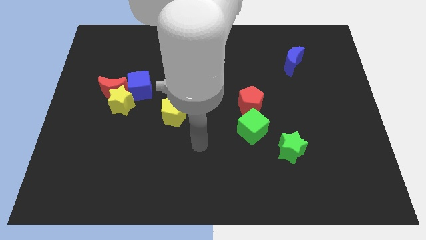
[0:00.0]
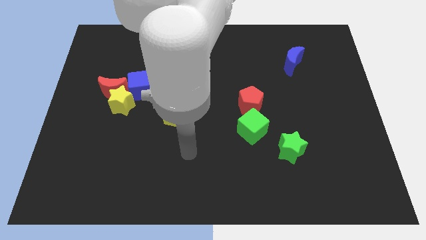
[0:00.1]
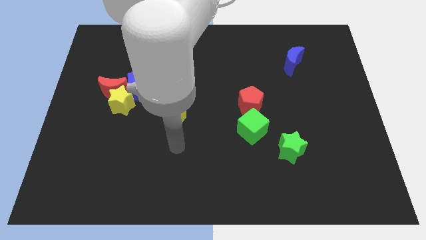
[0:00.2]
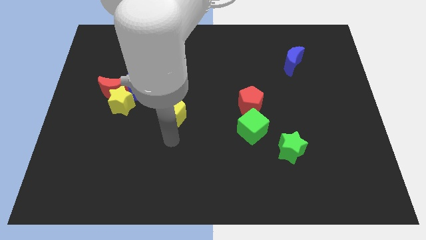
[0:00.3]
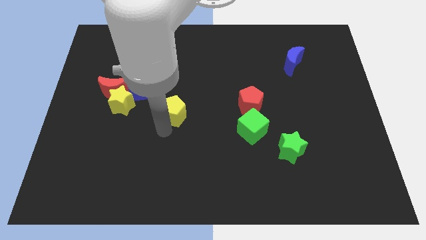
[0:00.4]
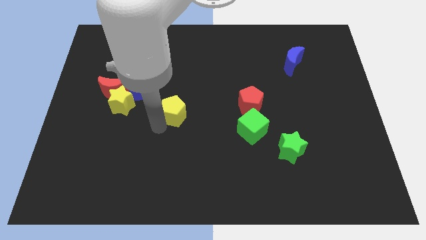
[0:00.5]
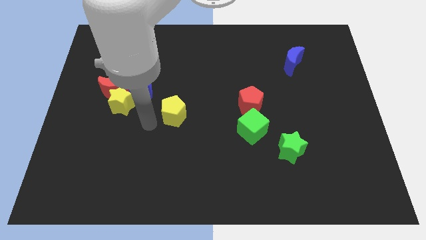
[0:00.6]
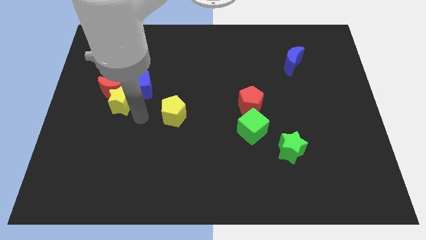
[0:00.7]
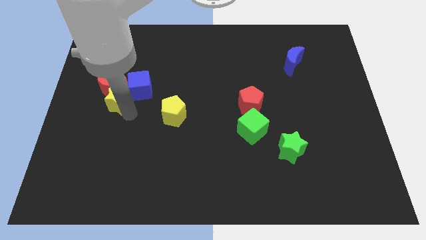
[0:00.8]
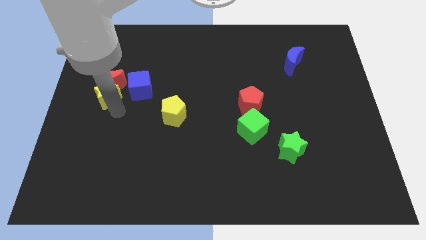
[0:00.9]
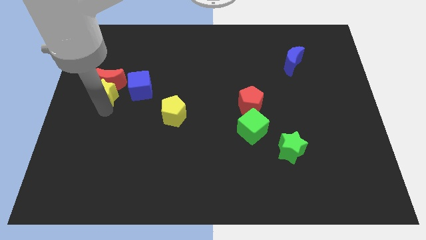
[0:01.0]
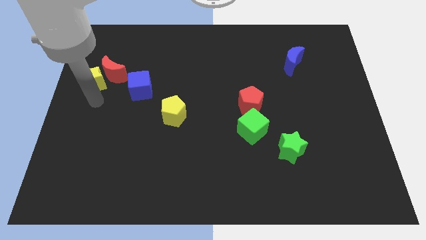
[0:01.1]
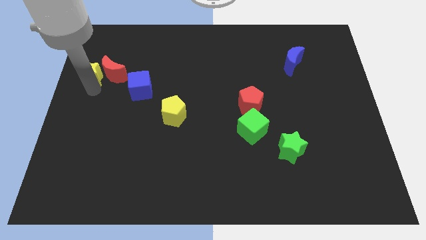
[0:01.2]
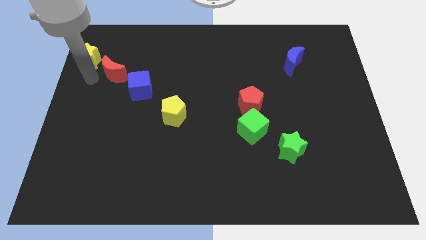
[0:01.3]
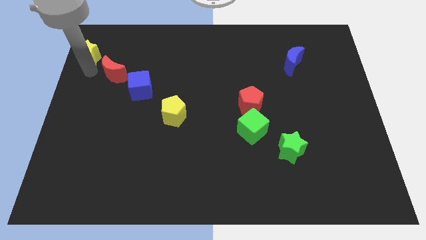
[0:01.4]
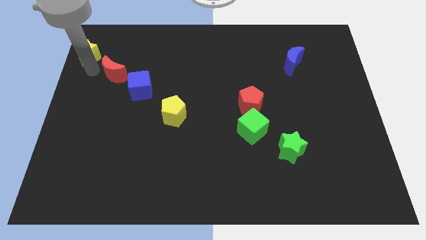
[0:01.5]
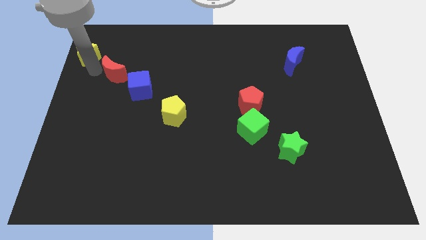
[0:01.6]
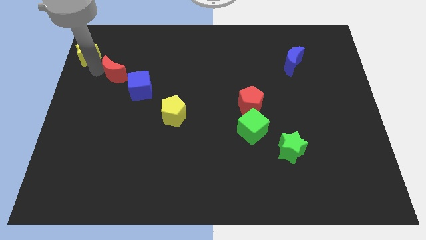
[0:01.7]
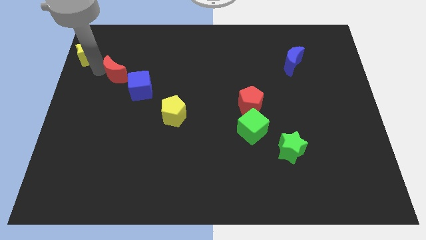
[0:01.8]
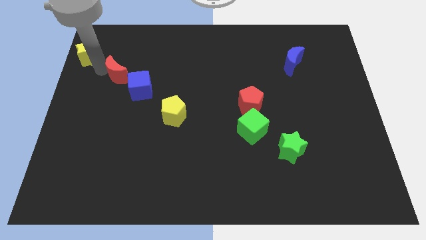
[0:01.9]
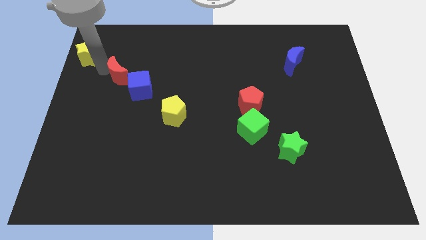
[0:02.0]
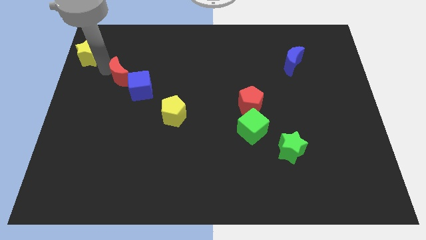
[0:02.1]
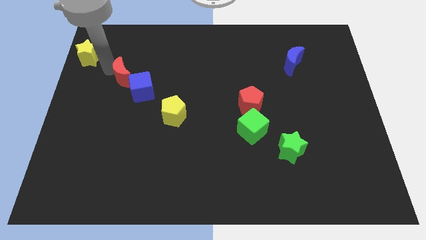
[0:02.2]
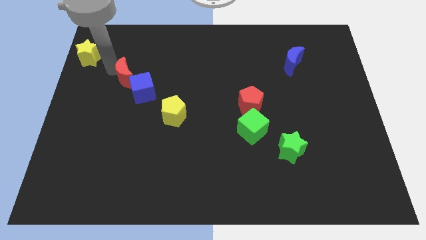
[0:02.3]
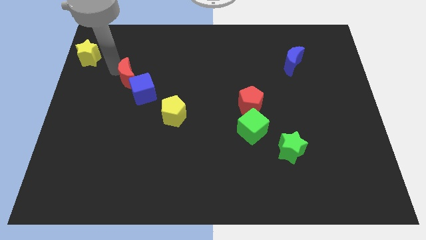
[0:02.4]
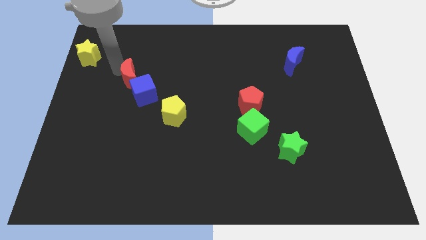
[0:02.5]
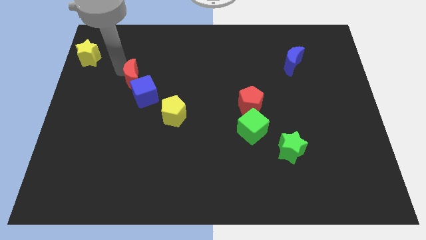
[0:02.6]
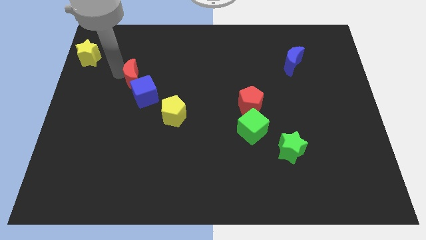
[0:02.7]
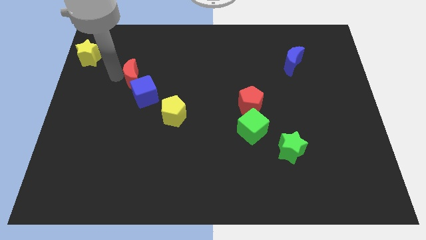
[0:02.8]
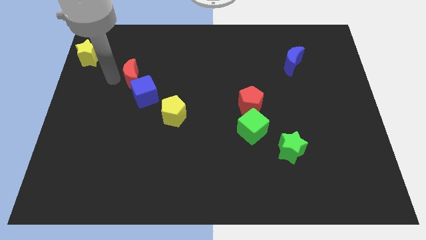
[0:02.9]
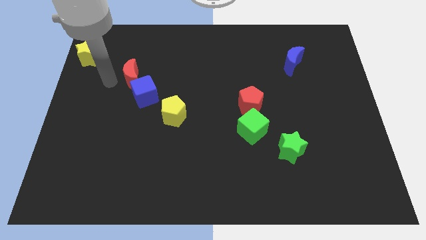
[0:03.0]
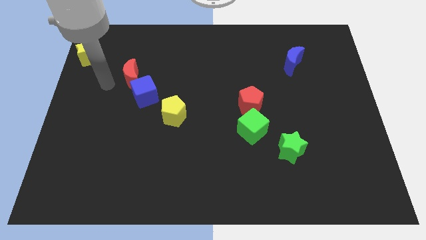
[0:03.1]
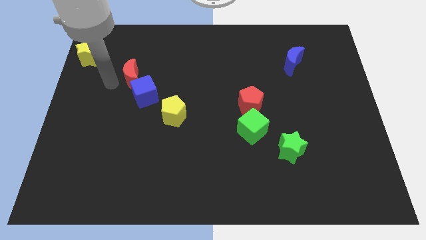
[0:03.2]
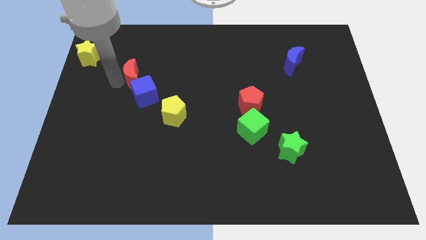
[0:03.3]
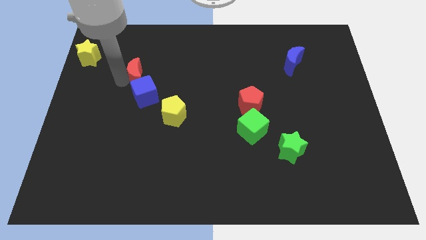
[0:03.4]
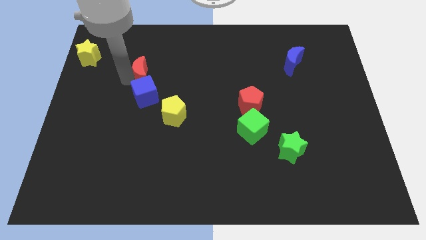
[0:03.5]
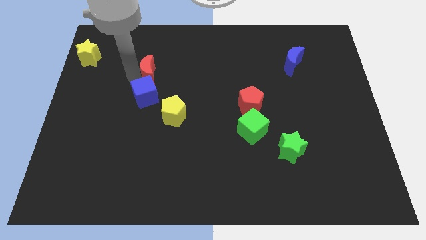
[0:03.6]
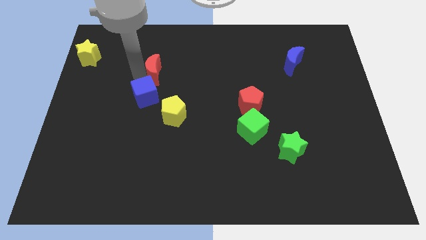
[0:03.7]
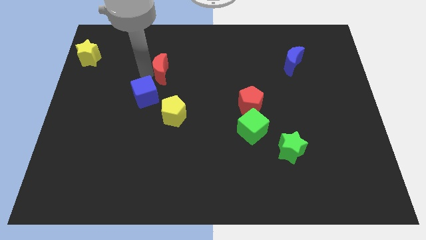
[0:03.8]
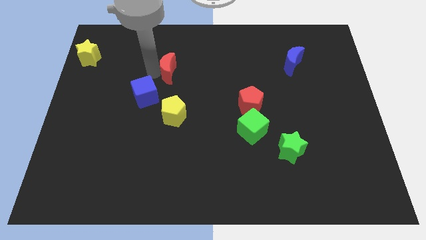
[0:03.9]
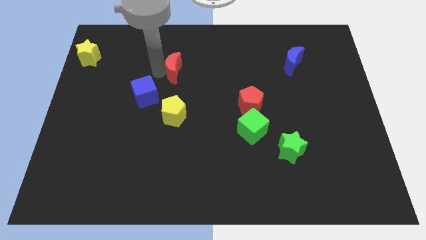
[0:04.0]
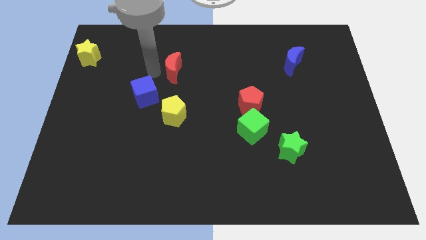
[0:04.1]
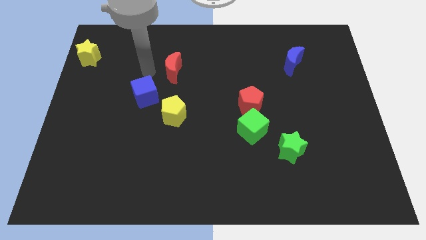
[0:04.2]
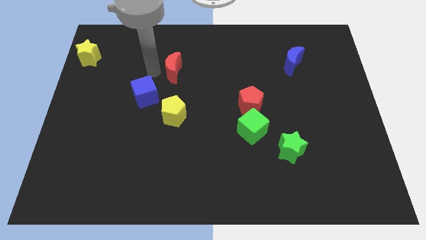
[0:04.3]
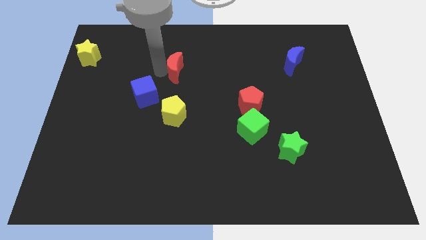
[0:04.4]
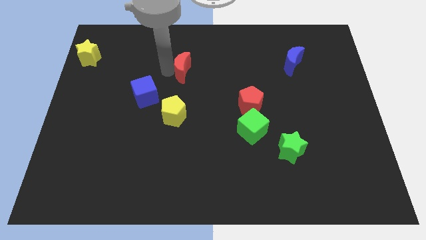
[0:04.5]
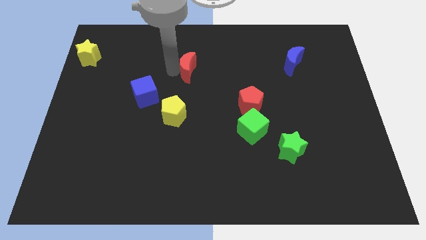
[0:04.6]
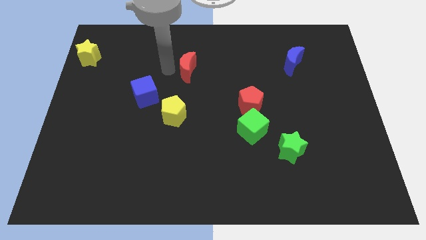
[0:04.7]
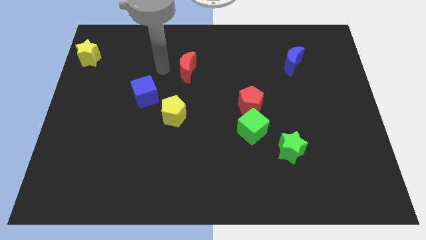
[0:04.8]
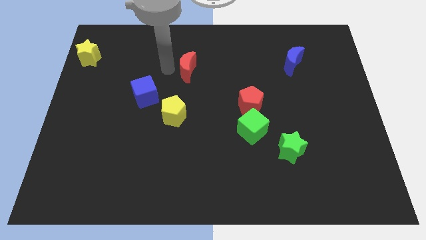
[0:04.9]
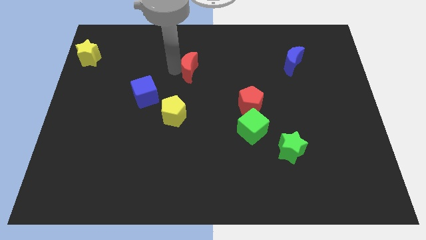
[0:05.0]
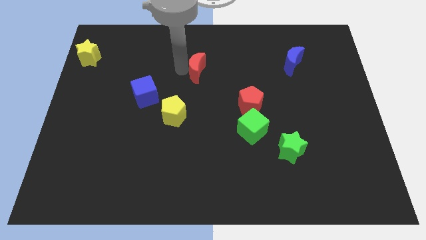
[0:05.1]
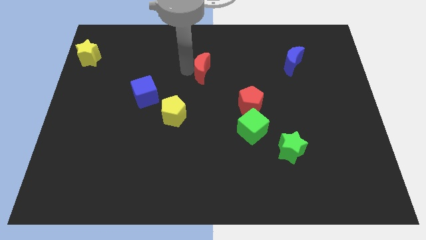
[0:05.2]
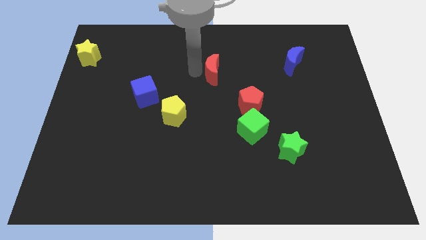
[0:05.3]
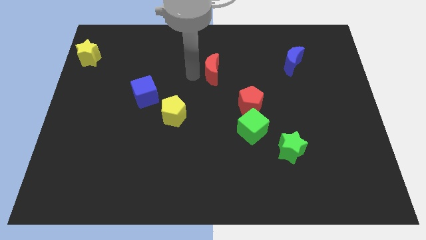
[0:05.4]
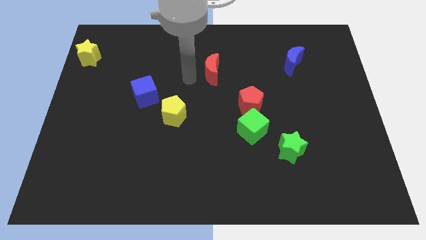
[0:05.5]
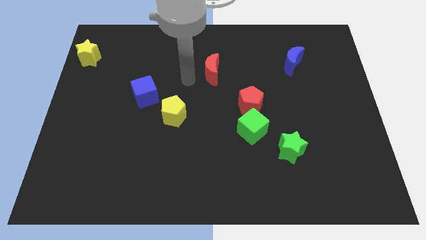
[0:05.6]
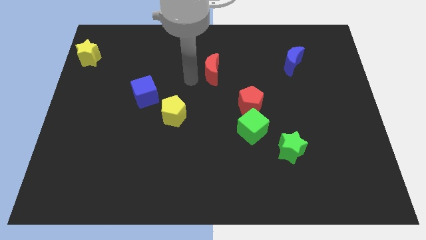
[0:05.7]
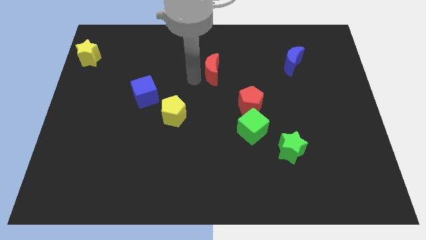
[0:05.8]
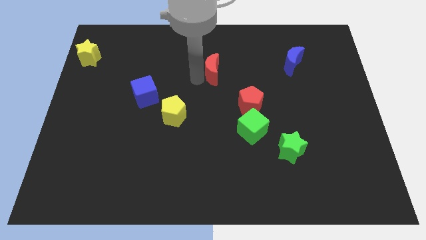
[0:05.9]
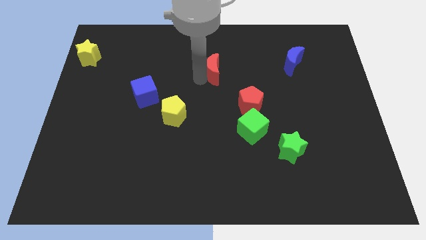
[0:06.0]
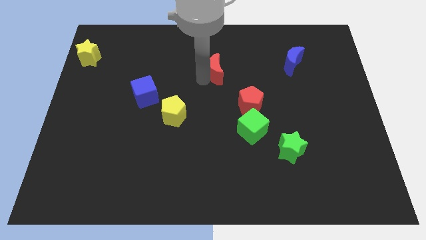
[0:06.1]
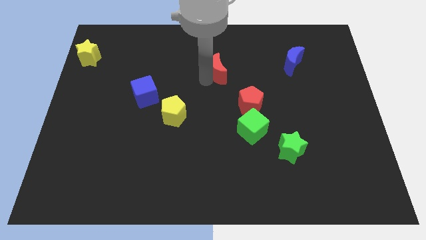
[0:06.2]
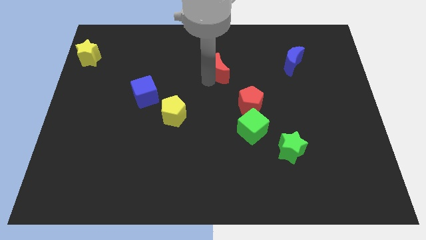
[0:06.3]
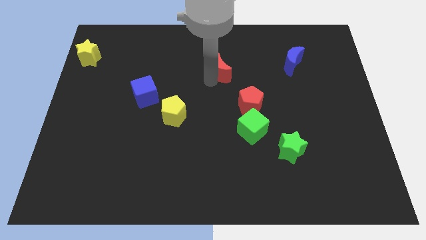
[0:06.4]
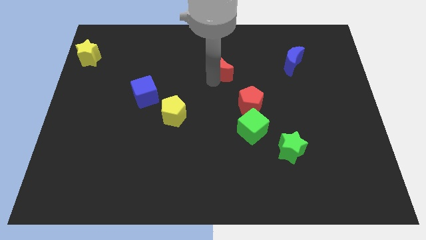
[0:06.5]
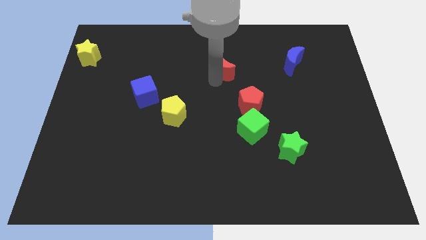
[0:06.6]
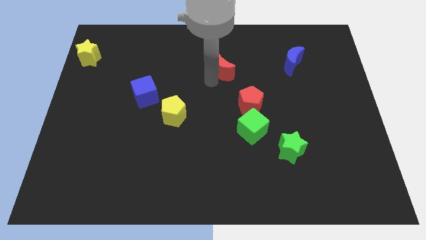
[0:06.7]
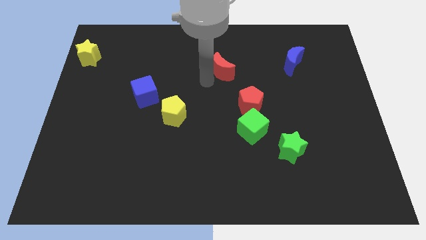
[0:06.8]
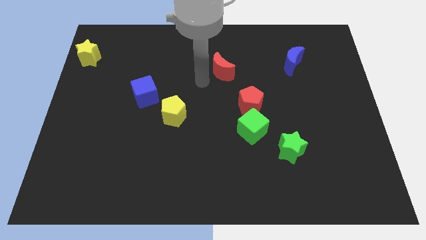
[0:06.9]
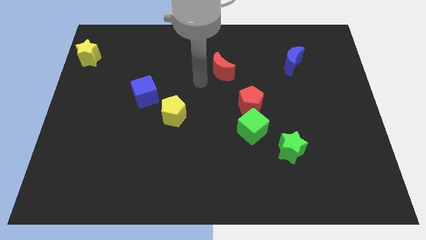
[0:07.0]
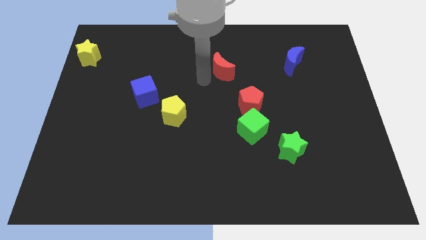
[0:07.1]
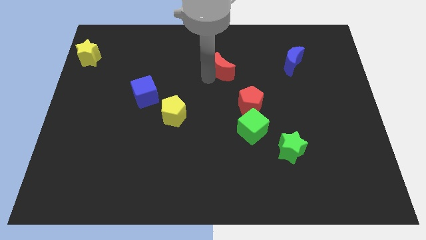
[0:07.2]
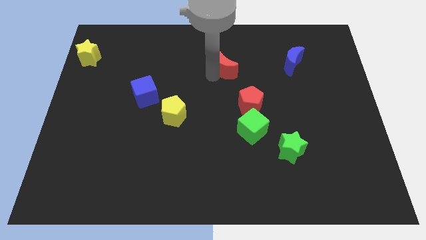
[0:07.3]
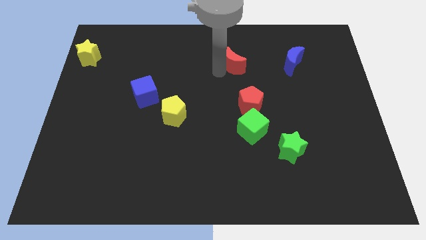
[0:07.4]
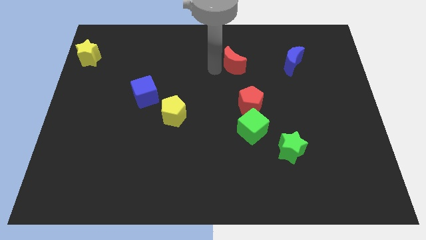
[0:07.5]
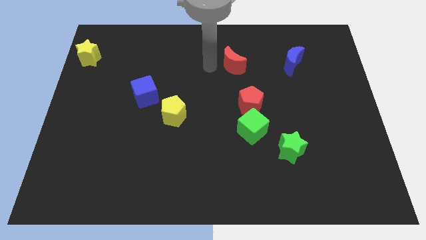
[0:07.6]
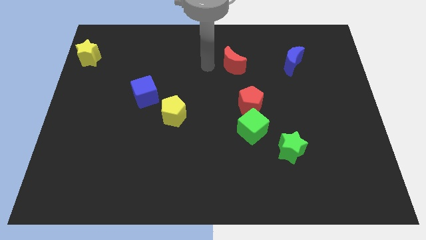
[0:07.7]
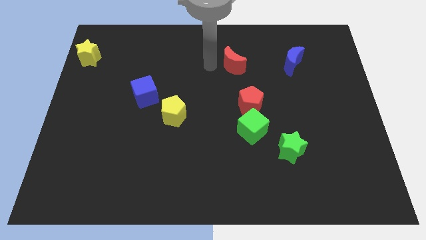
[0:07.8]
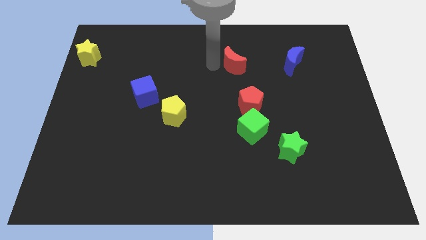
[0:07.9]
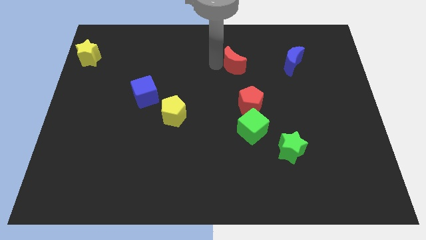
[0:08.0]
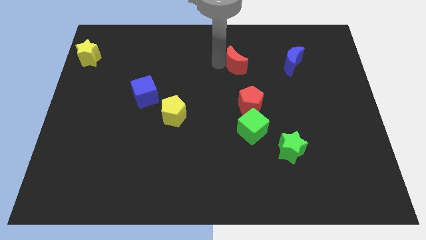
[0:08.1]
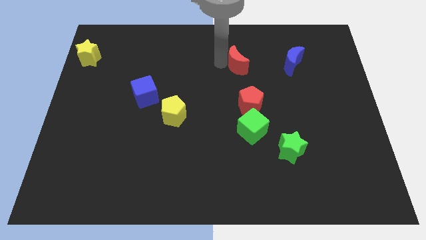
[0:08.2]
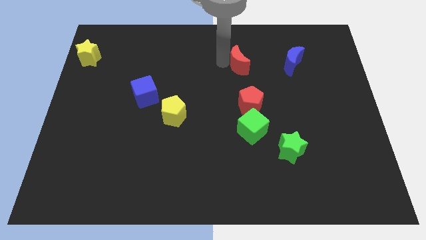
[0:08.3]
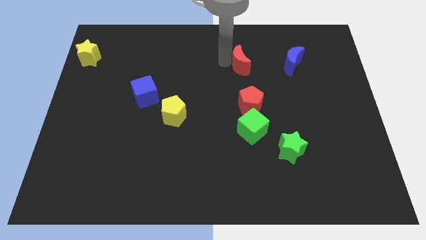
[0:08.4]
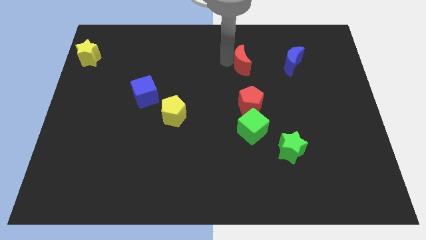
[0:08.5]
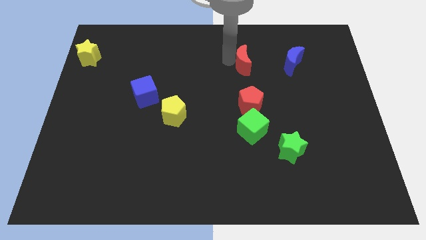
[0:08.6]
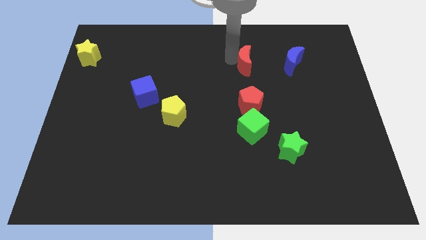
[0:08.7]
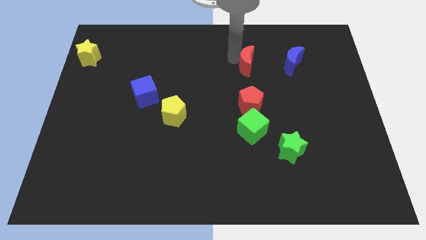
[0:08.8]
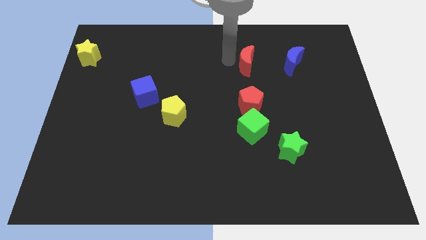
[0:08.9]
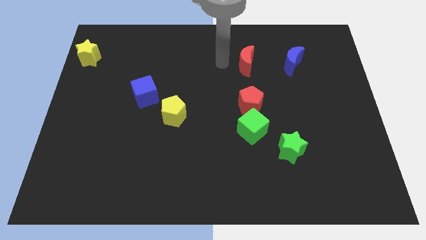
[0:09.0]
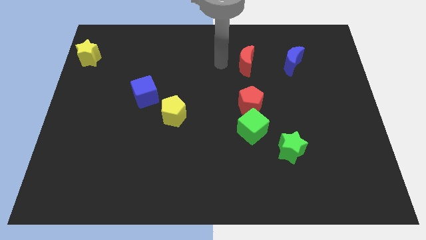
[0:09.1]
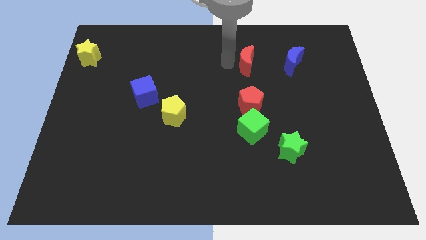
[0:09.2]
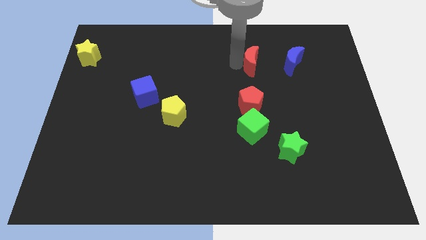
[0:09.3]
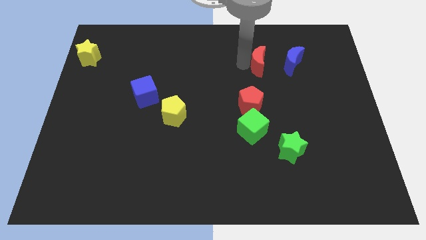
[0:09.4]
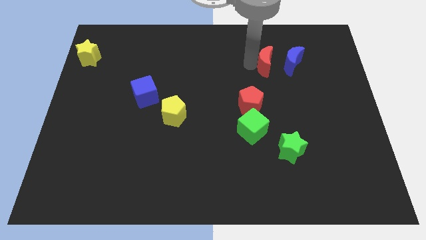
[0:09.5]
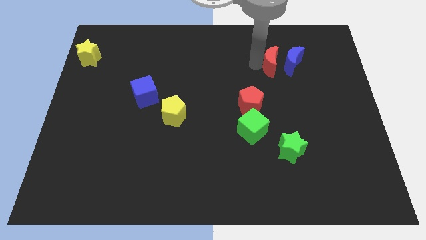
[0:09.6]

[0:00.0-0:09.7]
put the red moon to the blue moon
